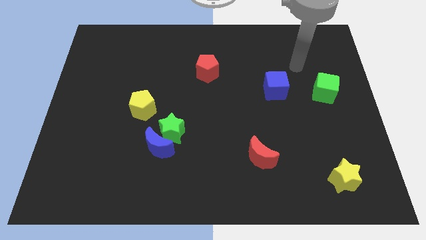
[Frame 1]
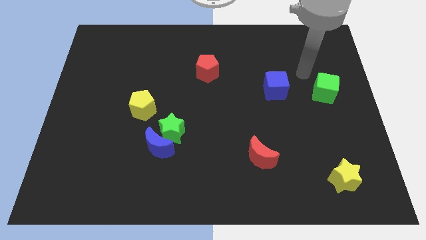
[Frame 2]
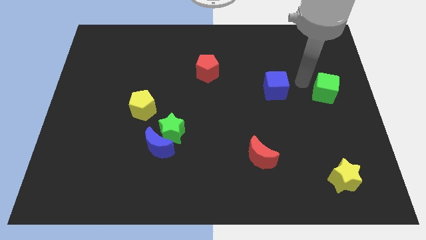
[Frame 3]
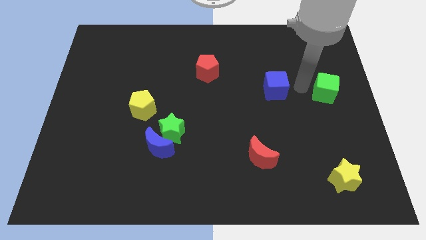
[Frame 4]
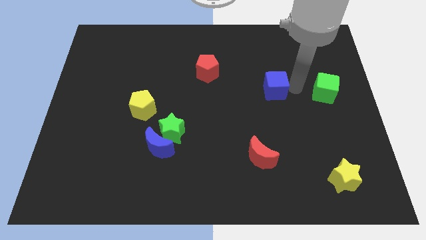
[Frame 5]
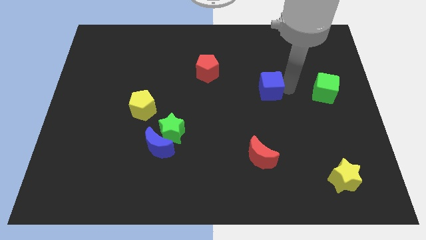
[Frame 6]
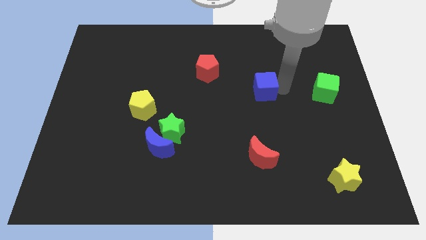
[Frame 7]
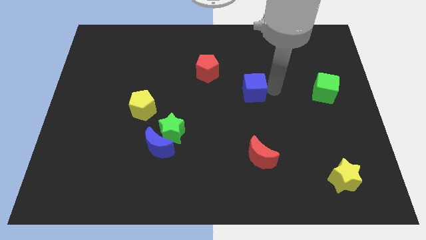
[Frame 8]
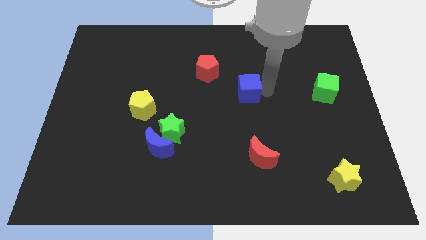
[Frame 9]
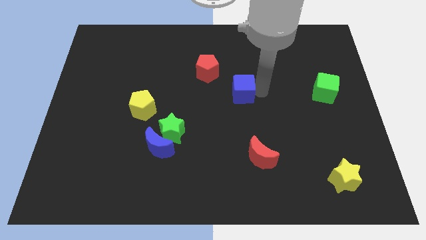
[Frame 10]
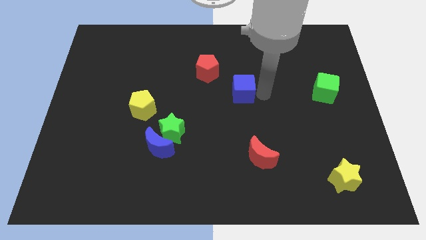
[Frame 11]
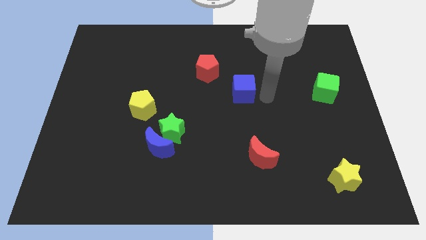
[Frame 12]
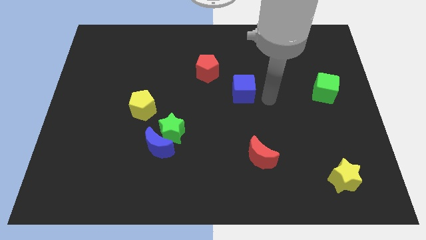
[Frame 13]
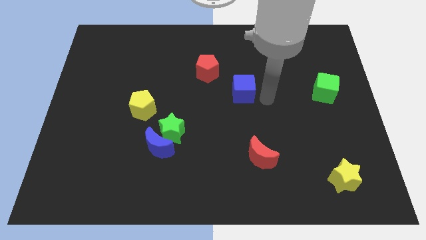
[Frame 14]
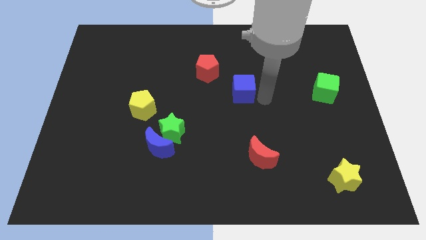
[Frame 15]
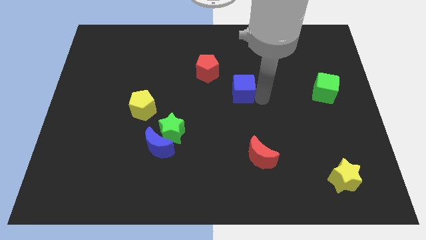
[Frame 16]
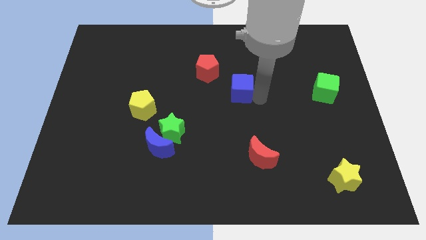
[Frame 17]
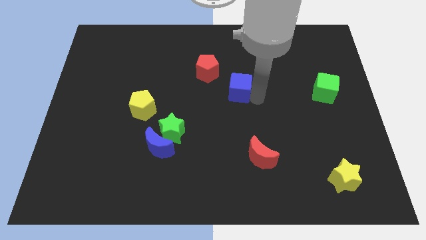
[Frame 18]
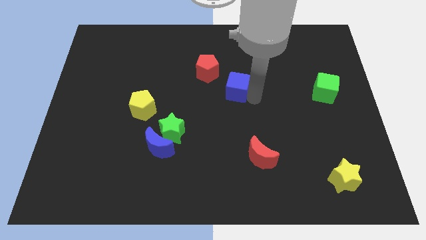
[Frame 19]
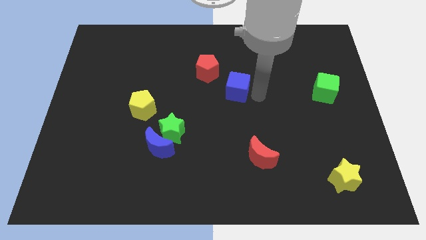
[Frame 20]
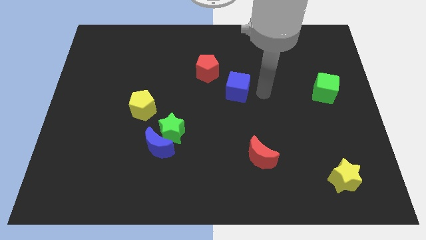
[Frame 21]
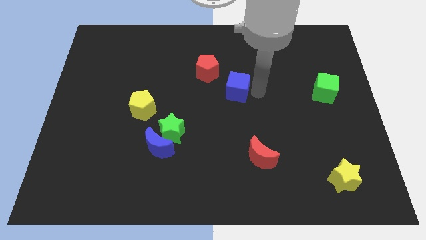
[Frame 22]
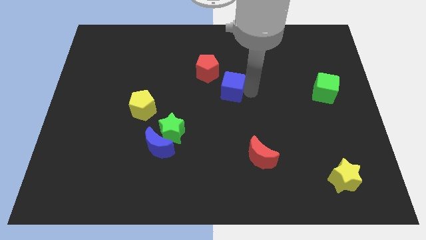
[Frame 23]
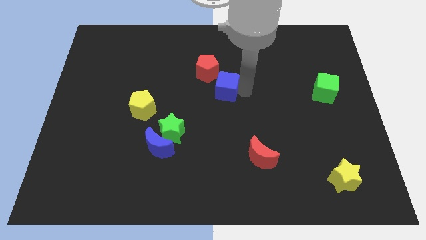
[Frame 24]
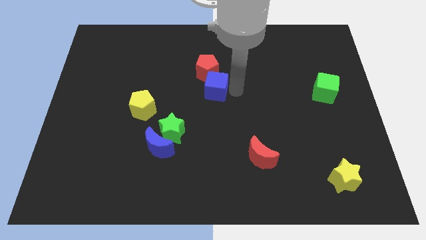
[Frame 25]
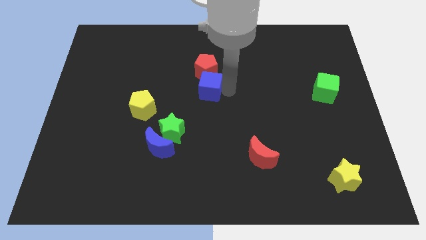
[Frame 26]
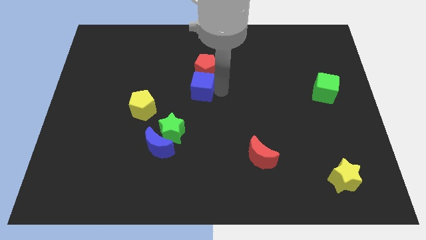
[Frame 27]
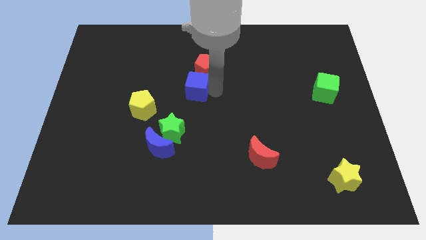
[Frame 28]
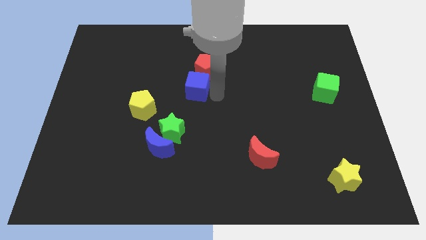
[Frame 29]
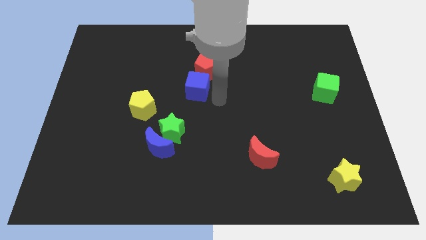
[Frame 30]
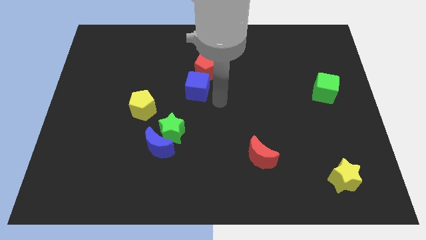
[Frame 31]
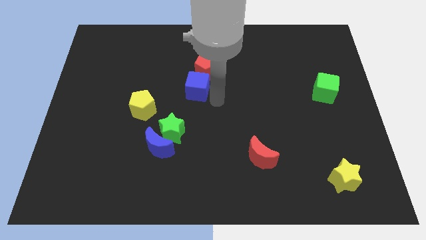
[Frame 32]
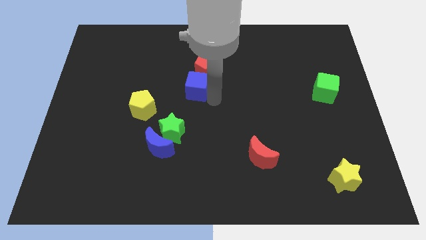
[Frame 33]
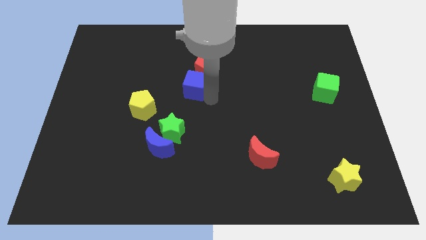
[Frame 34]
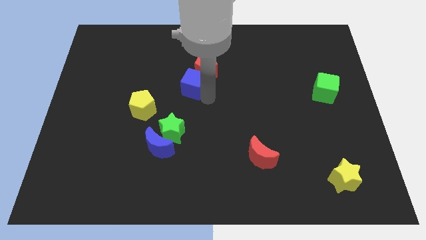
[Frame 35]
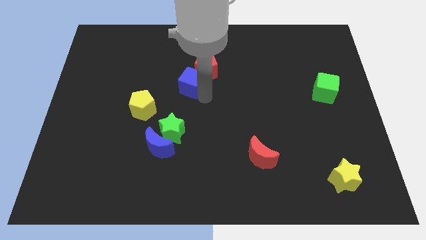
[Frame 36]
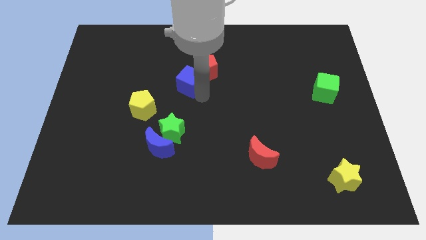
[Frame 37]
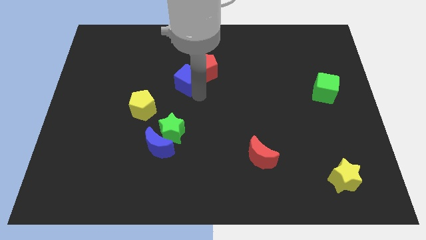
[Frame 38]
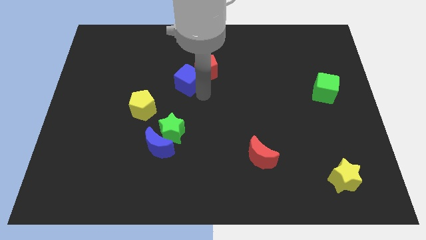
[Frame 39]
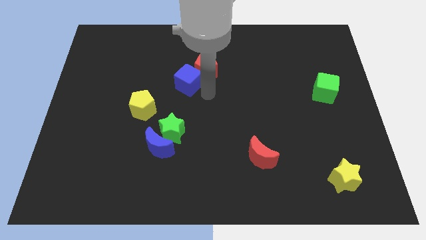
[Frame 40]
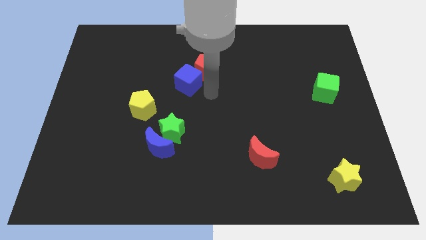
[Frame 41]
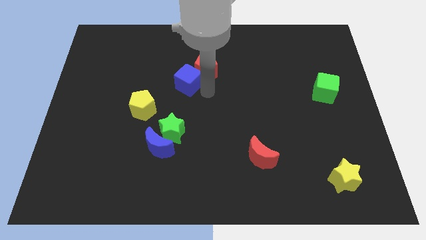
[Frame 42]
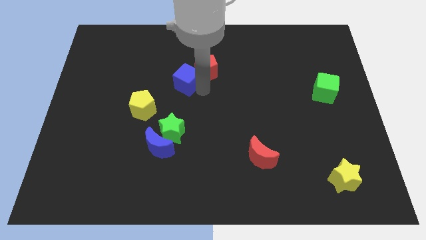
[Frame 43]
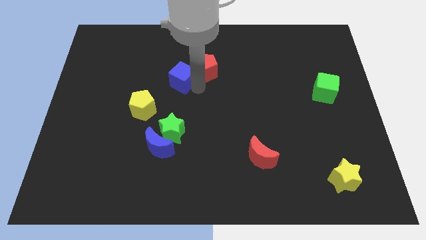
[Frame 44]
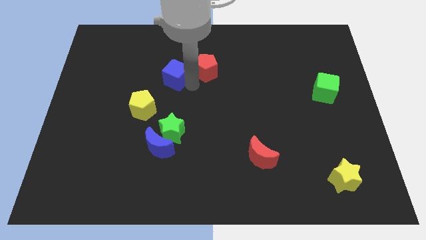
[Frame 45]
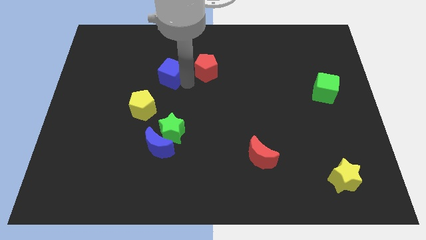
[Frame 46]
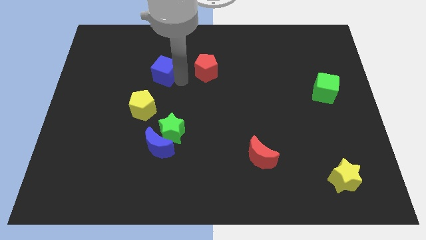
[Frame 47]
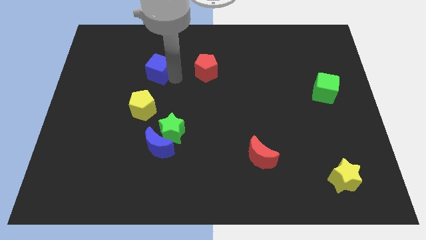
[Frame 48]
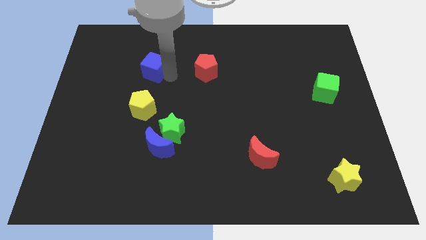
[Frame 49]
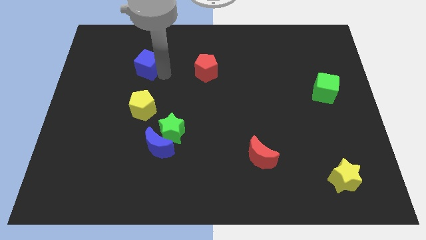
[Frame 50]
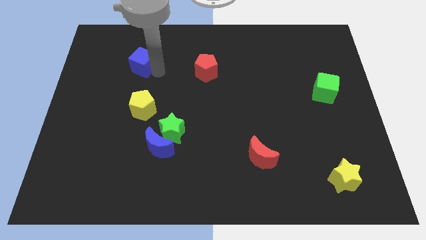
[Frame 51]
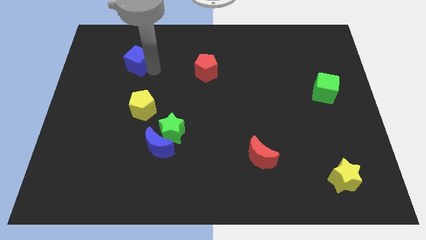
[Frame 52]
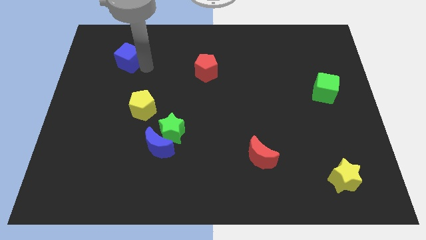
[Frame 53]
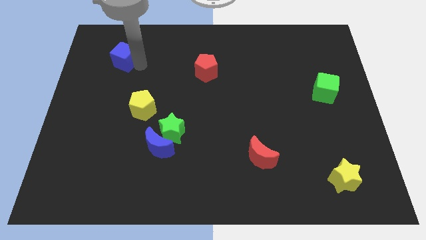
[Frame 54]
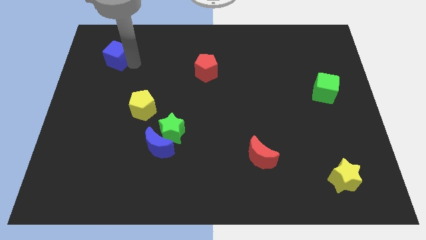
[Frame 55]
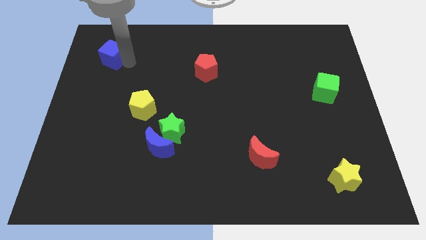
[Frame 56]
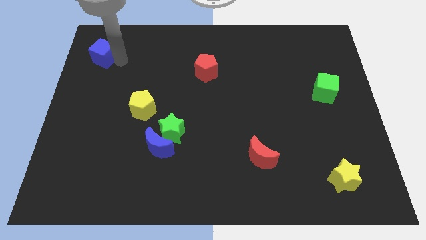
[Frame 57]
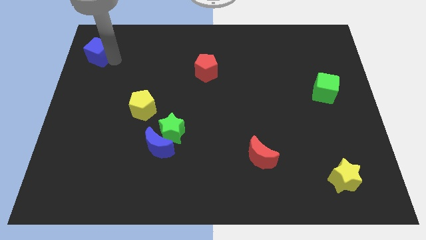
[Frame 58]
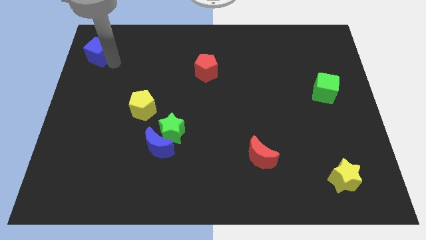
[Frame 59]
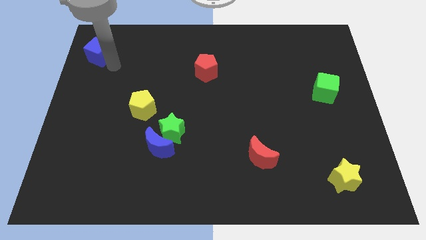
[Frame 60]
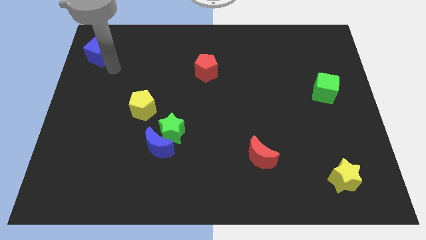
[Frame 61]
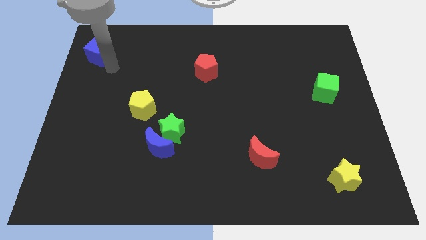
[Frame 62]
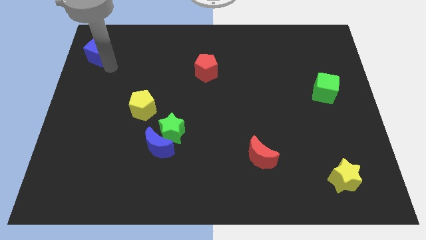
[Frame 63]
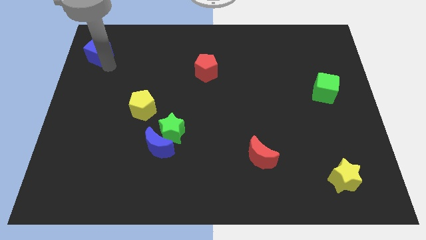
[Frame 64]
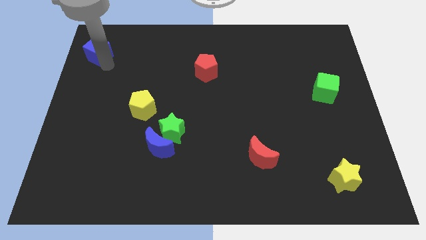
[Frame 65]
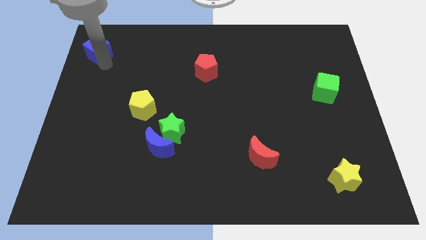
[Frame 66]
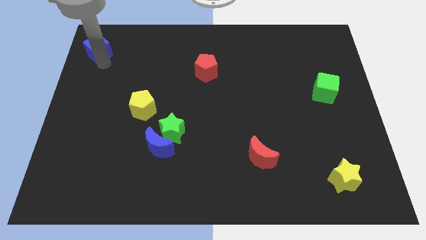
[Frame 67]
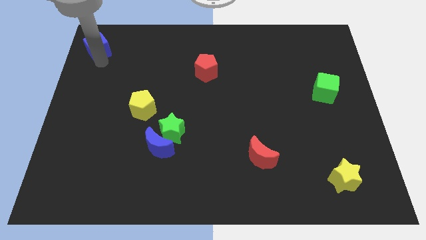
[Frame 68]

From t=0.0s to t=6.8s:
move the blue cube to the upper left corner
